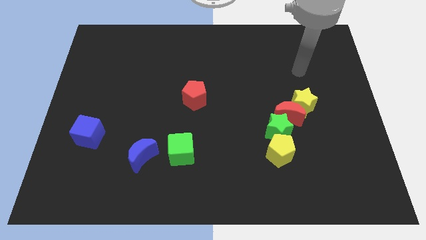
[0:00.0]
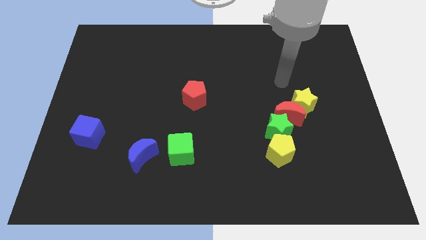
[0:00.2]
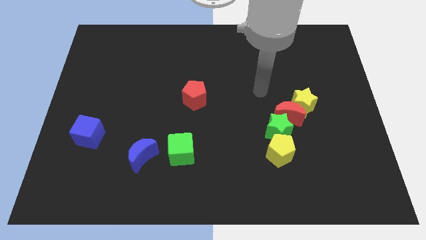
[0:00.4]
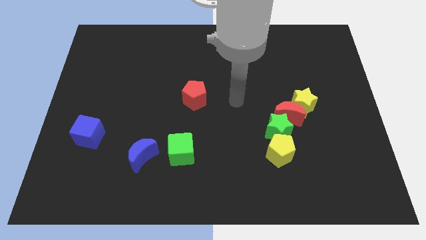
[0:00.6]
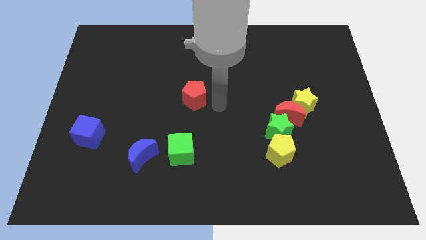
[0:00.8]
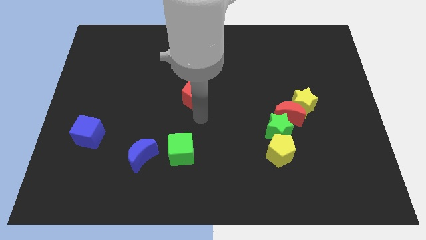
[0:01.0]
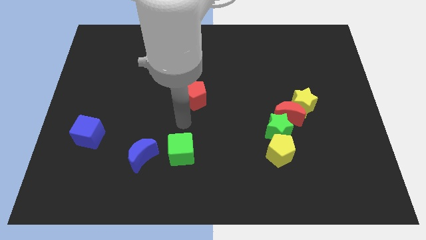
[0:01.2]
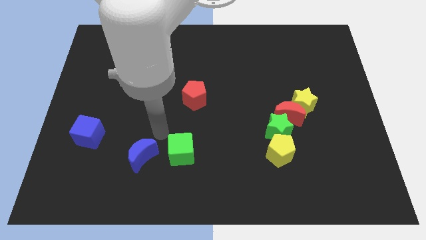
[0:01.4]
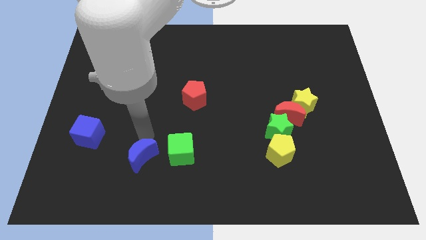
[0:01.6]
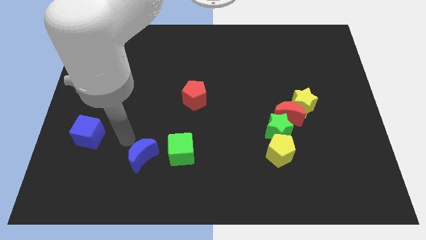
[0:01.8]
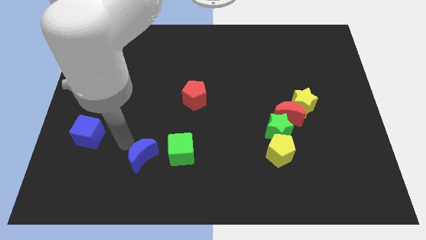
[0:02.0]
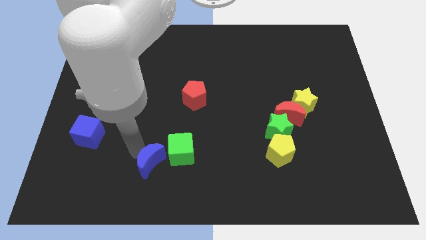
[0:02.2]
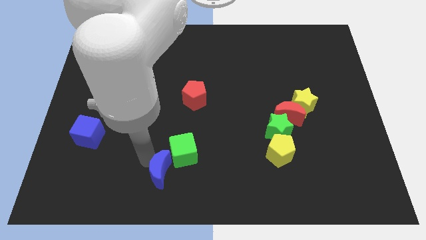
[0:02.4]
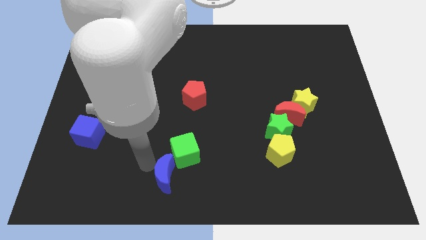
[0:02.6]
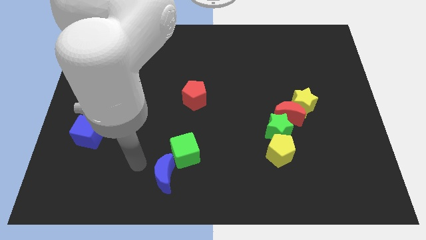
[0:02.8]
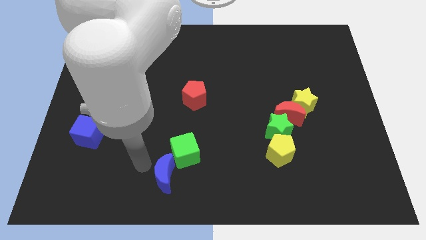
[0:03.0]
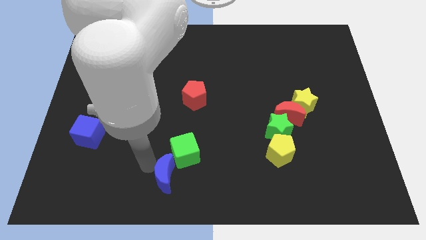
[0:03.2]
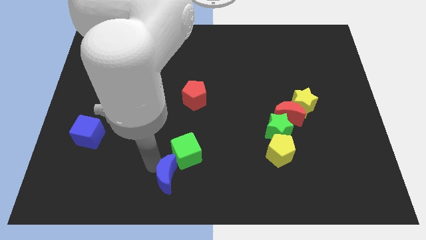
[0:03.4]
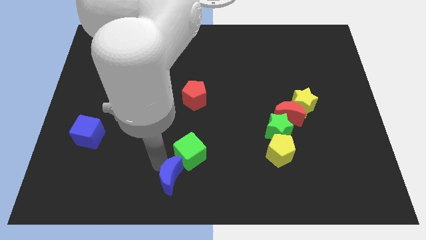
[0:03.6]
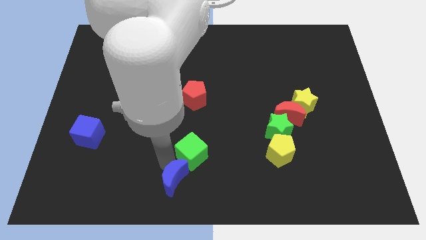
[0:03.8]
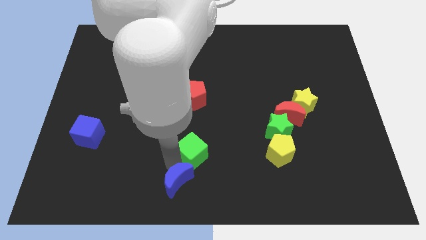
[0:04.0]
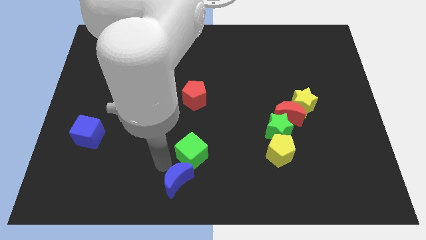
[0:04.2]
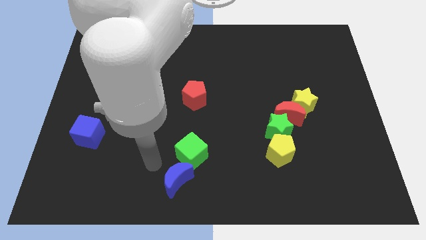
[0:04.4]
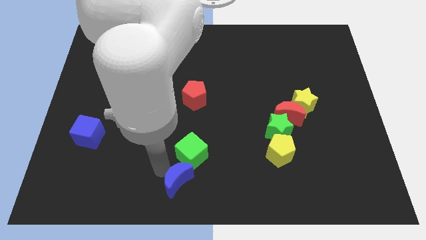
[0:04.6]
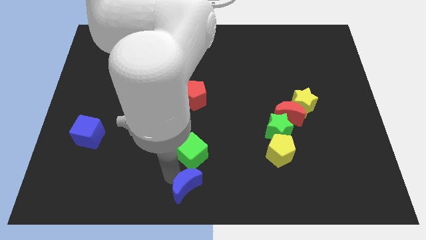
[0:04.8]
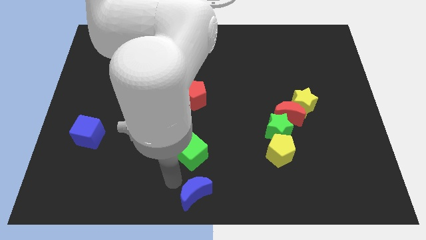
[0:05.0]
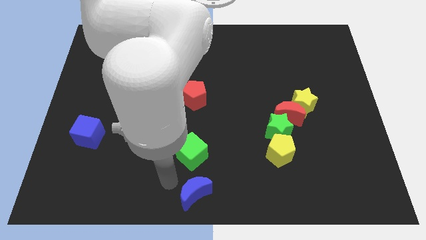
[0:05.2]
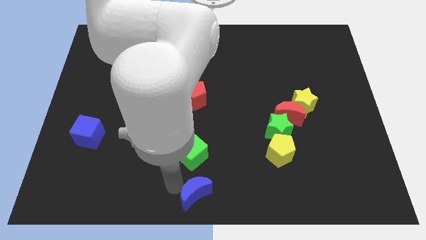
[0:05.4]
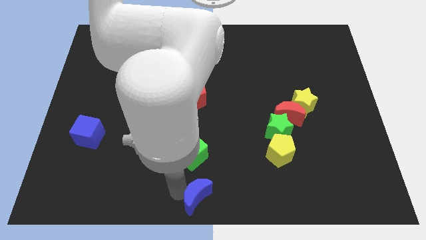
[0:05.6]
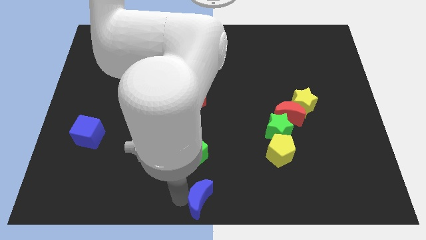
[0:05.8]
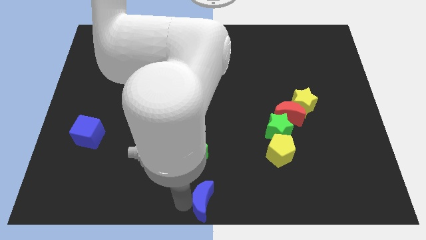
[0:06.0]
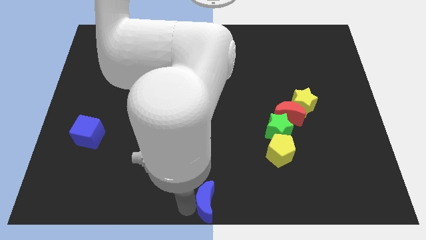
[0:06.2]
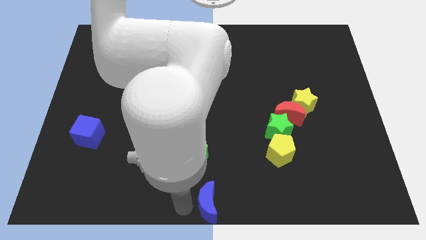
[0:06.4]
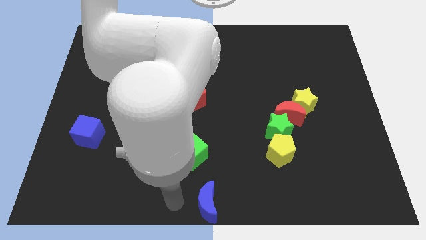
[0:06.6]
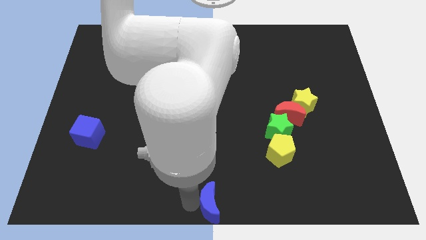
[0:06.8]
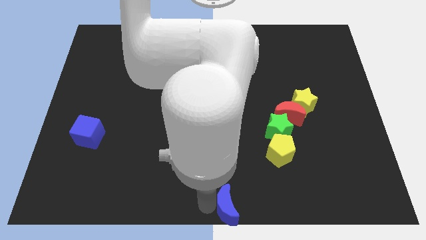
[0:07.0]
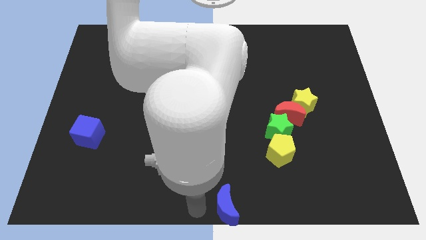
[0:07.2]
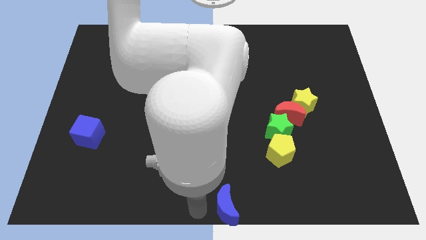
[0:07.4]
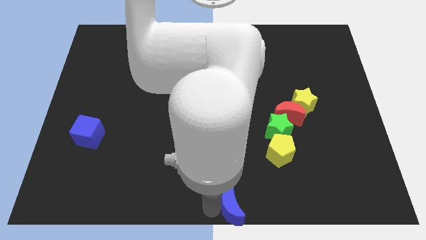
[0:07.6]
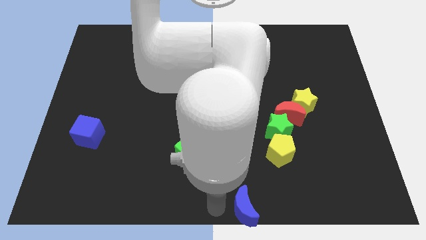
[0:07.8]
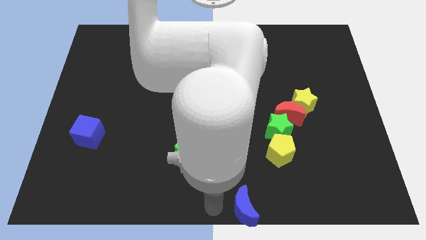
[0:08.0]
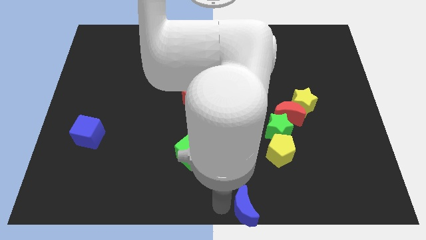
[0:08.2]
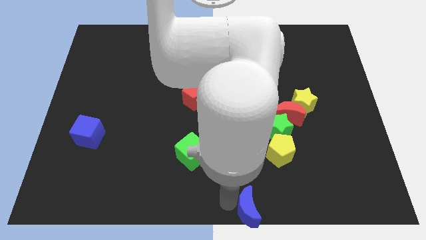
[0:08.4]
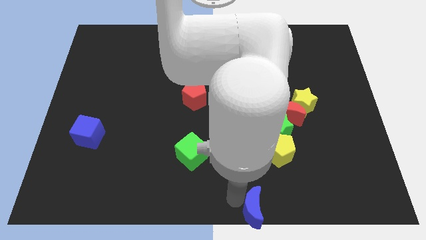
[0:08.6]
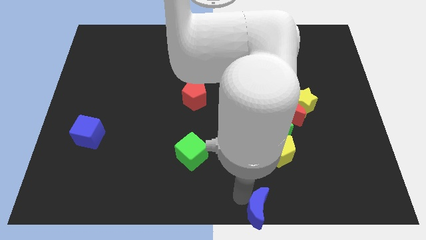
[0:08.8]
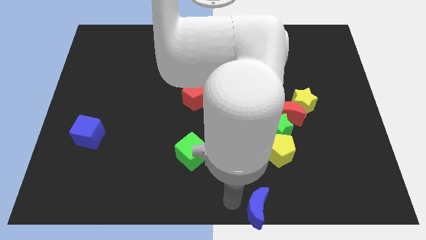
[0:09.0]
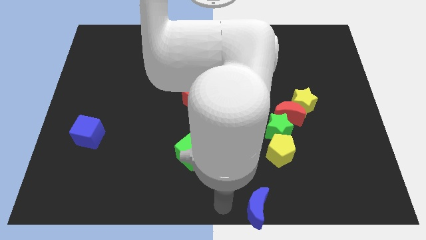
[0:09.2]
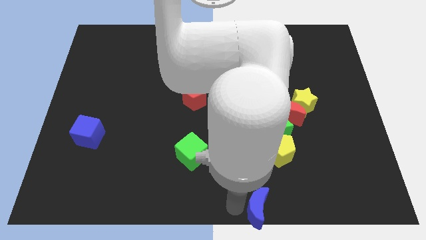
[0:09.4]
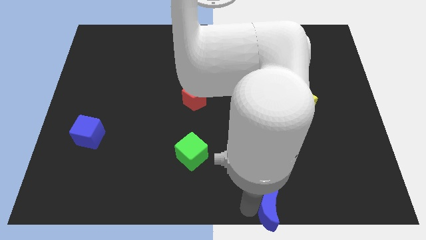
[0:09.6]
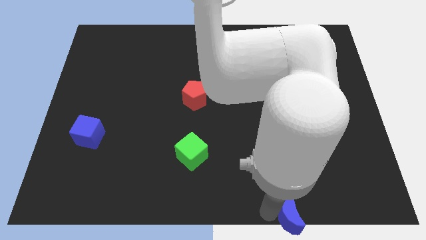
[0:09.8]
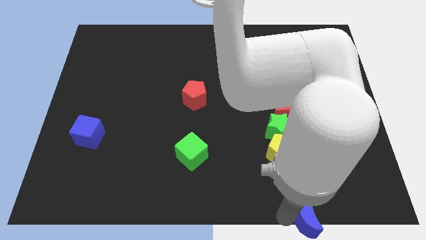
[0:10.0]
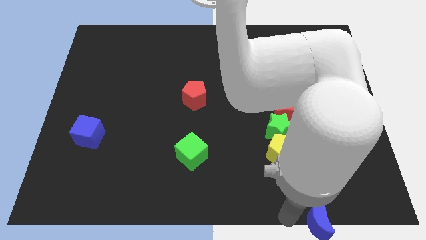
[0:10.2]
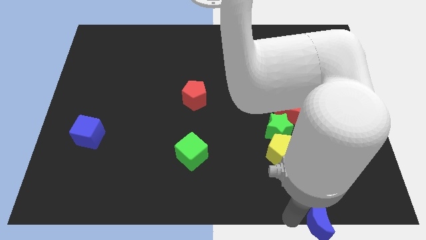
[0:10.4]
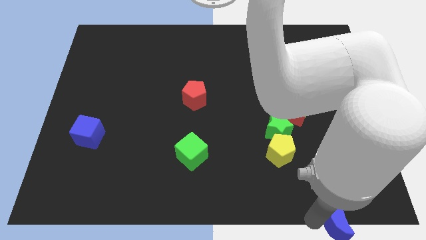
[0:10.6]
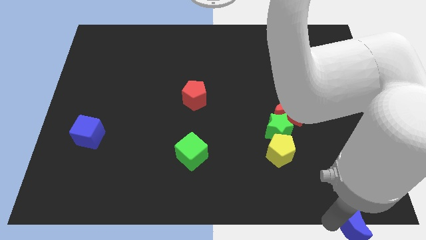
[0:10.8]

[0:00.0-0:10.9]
slide the blue moon to the bottom right

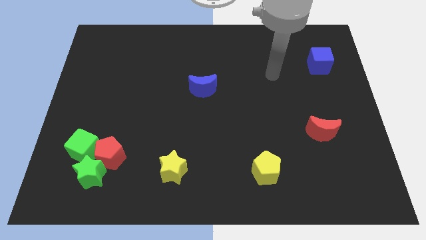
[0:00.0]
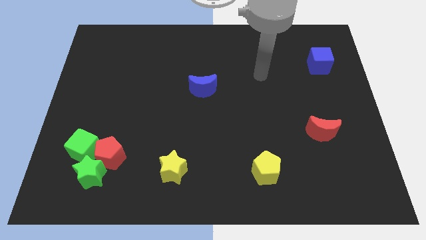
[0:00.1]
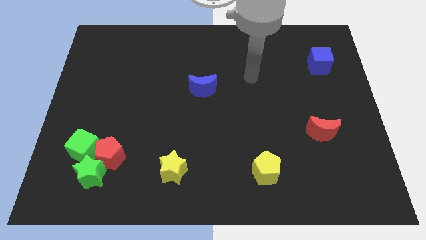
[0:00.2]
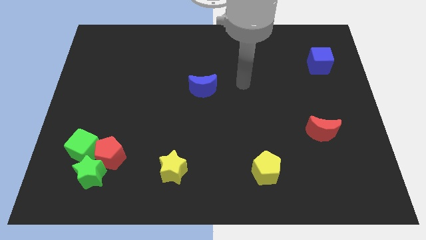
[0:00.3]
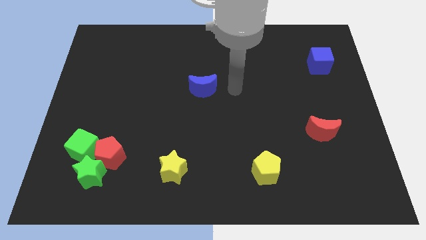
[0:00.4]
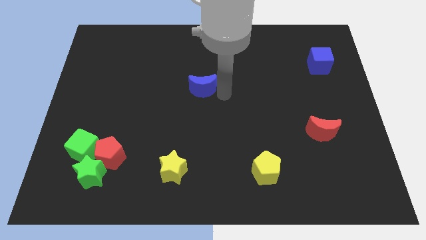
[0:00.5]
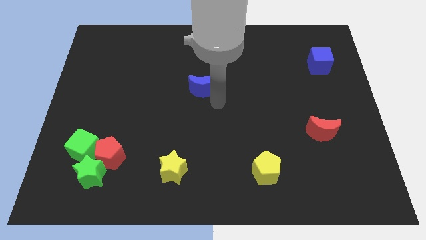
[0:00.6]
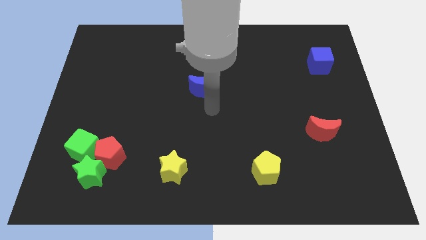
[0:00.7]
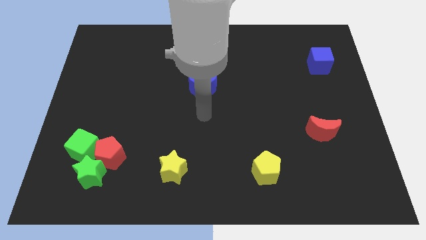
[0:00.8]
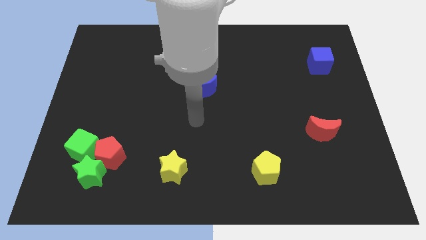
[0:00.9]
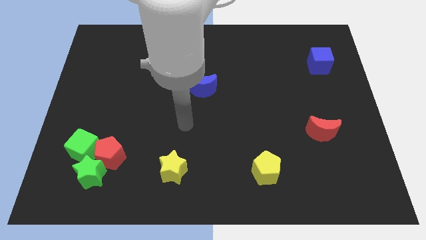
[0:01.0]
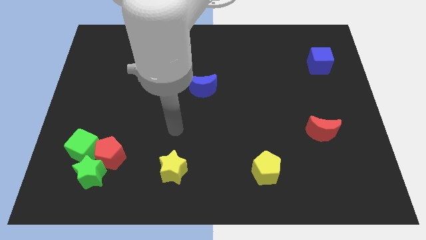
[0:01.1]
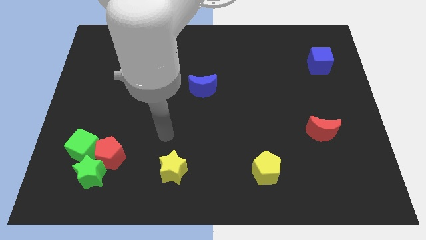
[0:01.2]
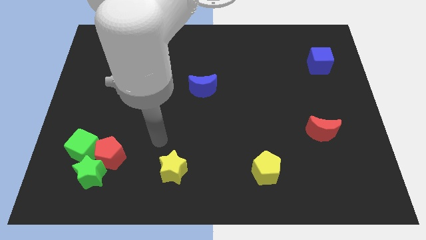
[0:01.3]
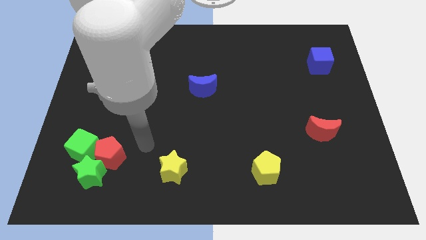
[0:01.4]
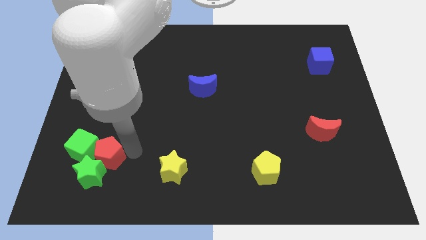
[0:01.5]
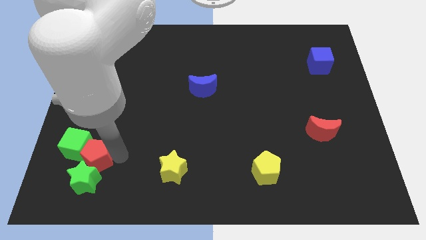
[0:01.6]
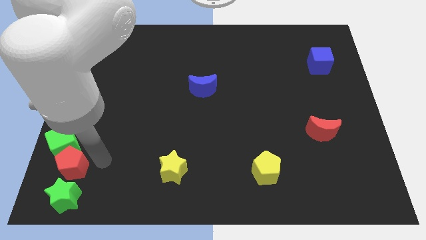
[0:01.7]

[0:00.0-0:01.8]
slide the green cube to the left side of the board
